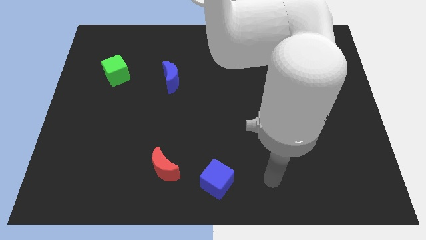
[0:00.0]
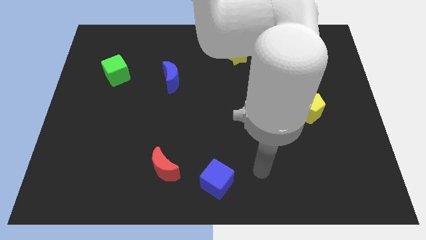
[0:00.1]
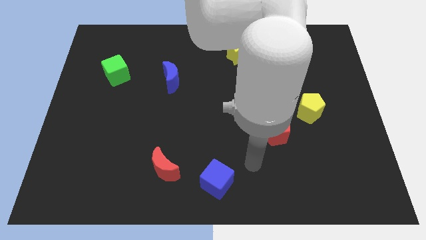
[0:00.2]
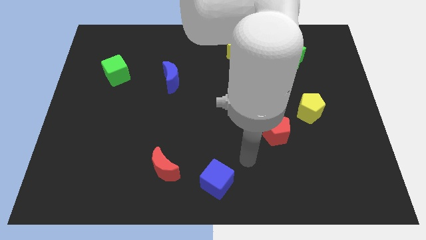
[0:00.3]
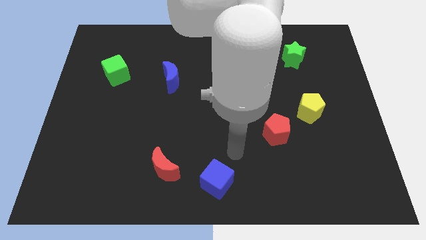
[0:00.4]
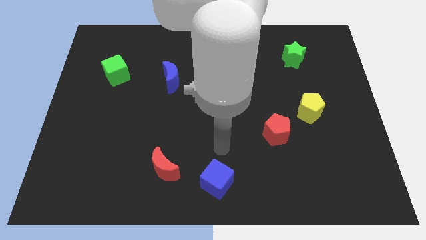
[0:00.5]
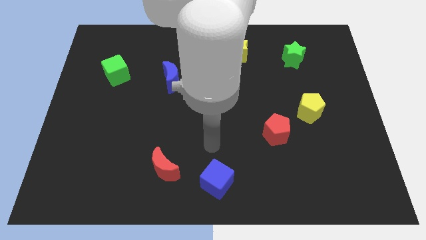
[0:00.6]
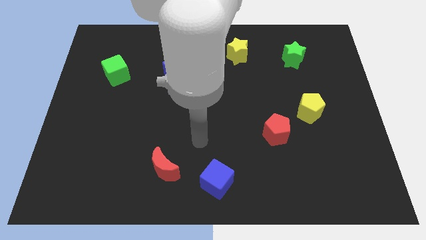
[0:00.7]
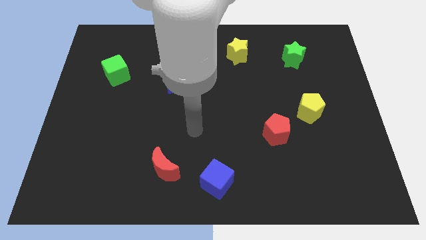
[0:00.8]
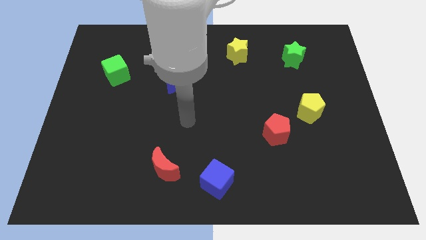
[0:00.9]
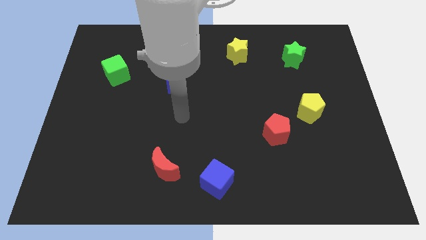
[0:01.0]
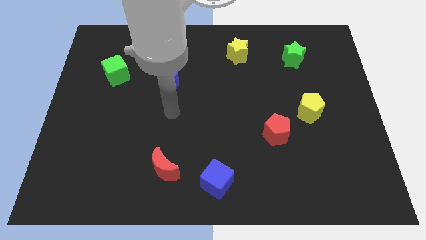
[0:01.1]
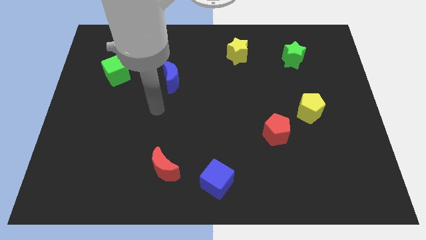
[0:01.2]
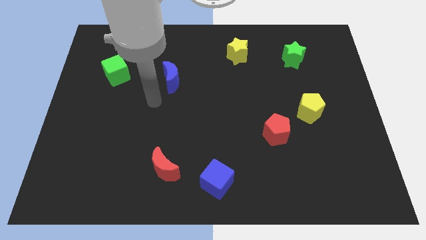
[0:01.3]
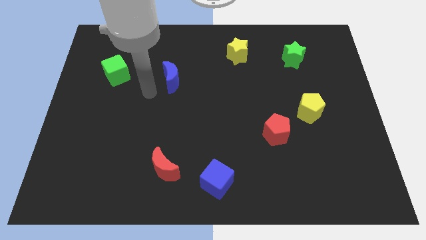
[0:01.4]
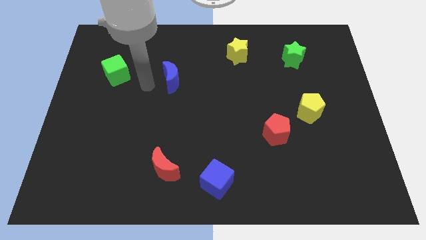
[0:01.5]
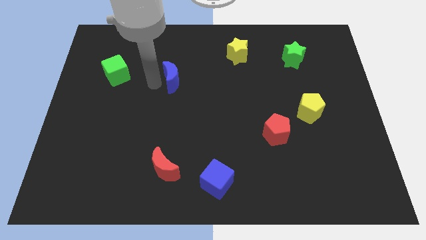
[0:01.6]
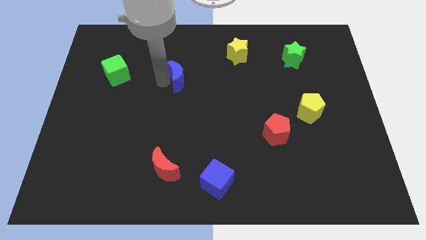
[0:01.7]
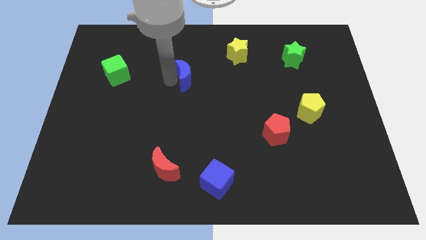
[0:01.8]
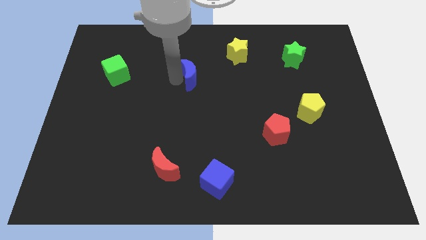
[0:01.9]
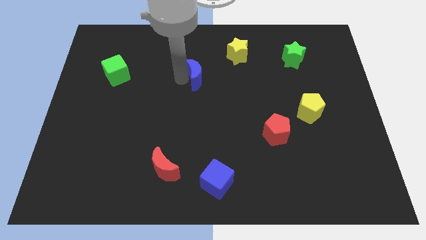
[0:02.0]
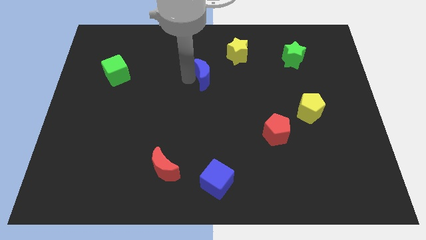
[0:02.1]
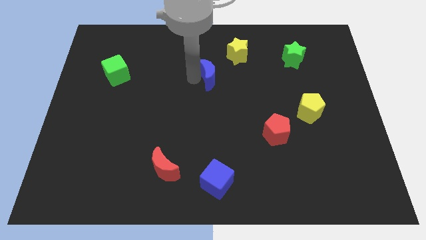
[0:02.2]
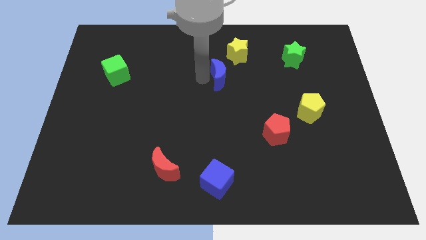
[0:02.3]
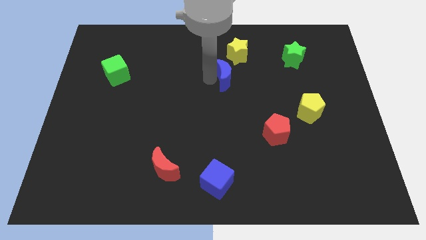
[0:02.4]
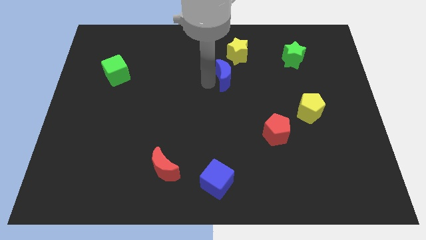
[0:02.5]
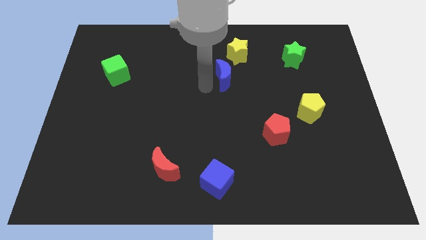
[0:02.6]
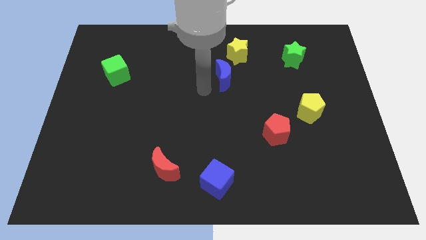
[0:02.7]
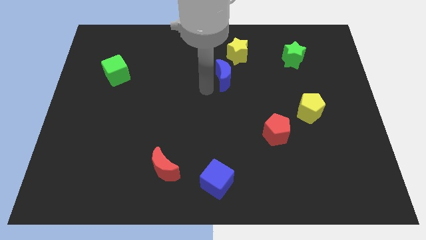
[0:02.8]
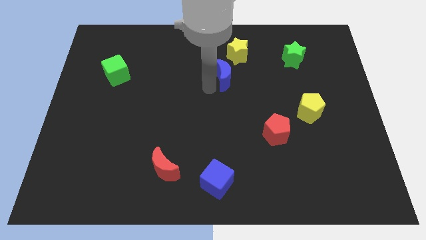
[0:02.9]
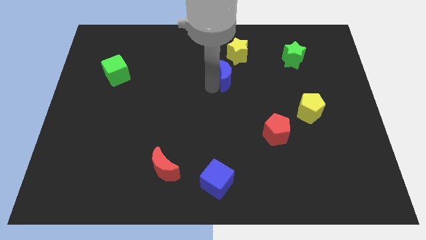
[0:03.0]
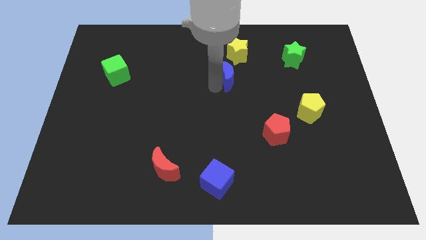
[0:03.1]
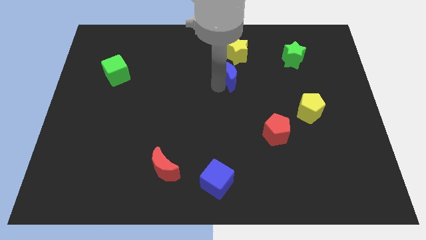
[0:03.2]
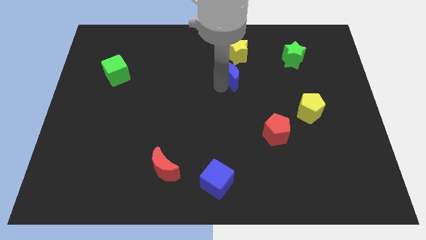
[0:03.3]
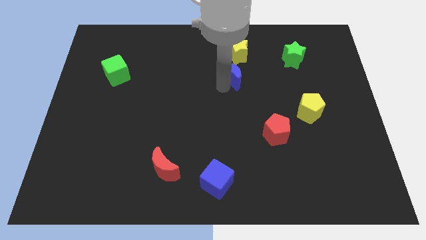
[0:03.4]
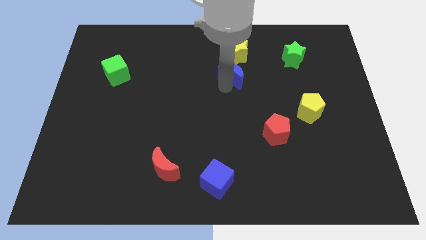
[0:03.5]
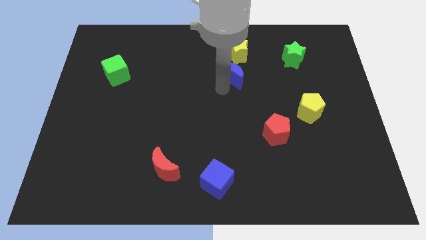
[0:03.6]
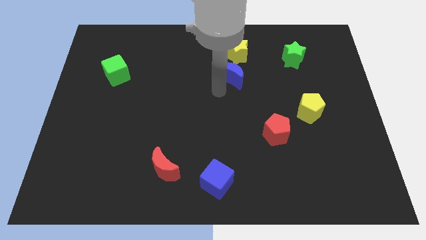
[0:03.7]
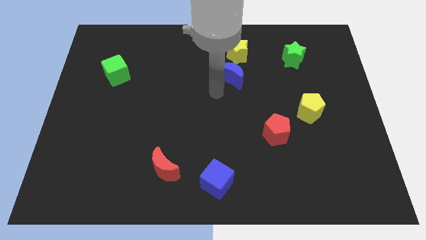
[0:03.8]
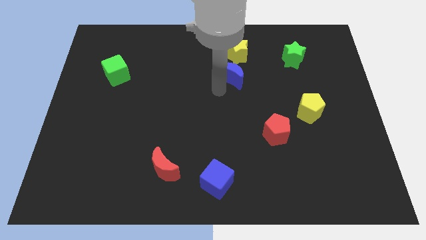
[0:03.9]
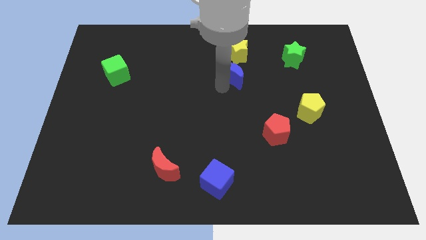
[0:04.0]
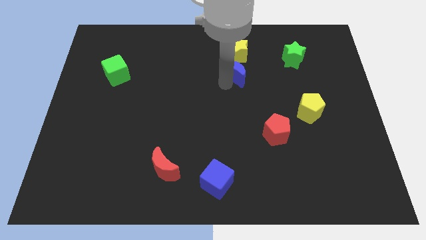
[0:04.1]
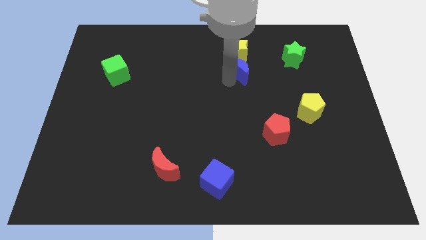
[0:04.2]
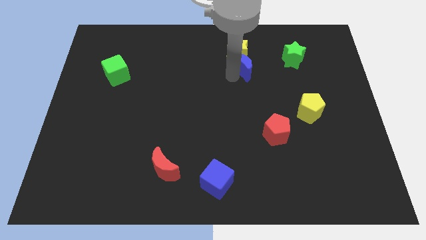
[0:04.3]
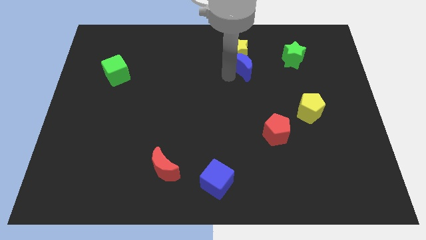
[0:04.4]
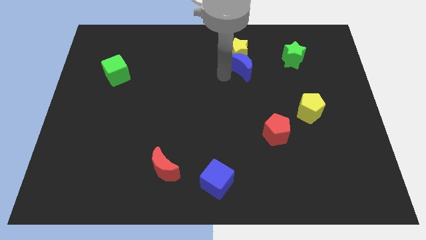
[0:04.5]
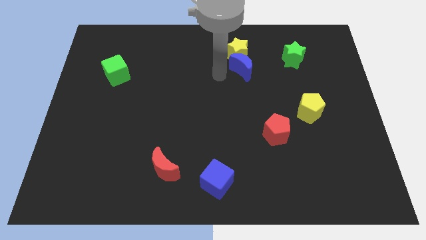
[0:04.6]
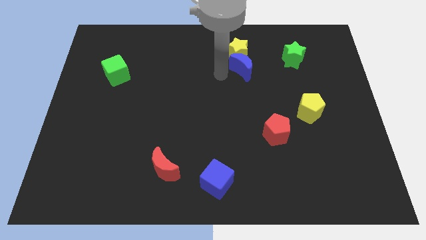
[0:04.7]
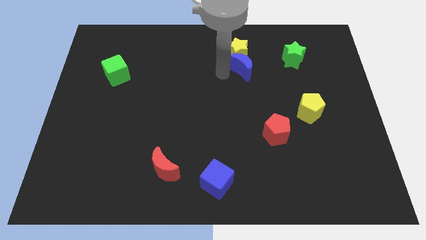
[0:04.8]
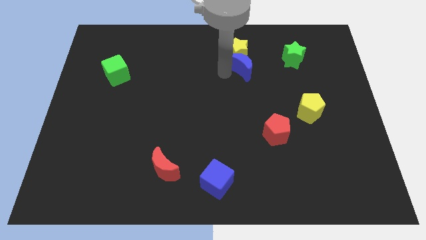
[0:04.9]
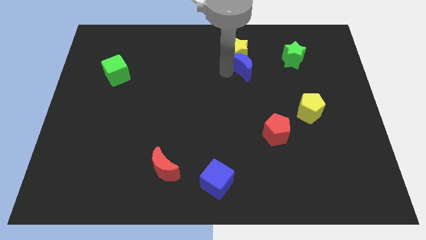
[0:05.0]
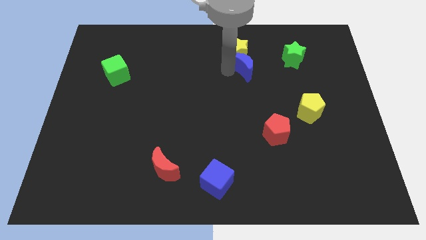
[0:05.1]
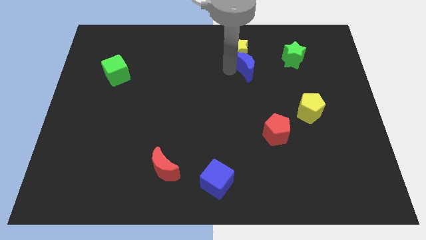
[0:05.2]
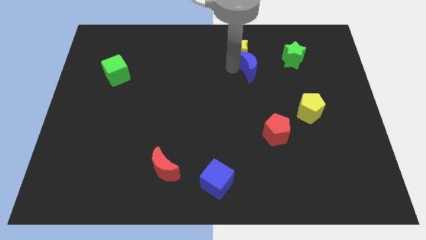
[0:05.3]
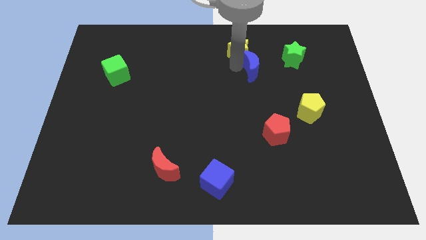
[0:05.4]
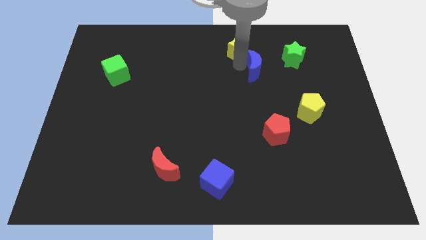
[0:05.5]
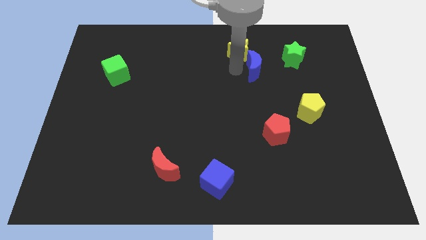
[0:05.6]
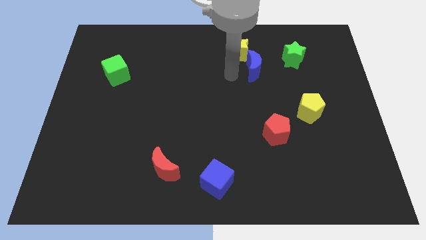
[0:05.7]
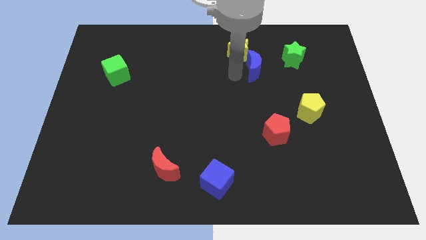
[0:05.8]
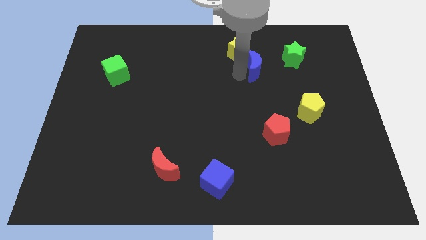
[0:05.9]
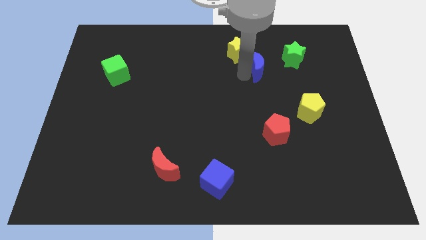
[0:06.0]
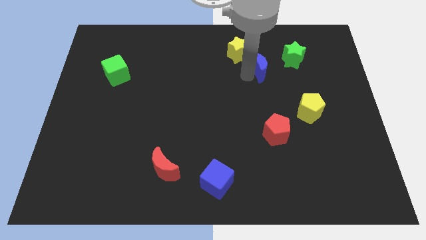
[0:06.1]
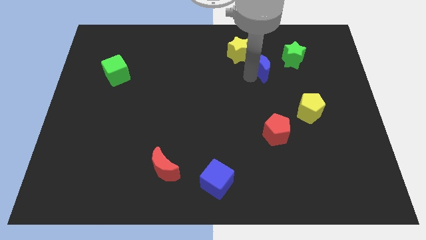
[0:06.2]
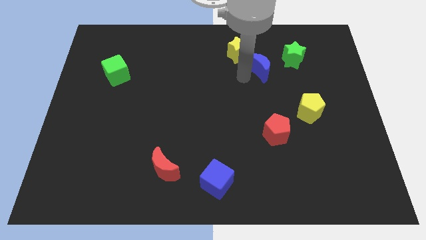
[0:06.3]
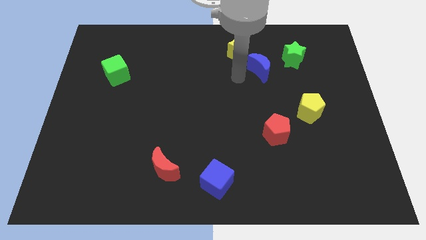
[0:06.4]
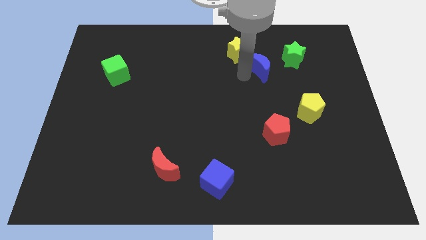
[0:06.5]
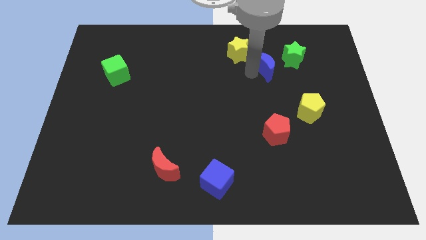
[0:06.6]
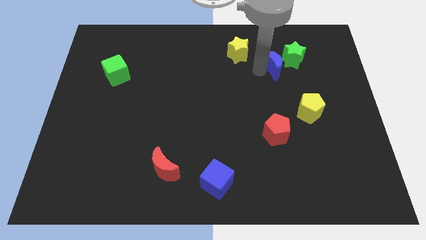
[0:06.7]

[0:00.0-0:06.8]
slide the blue moon towards the green star

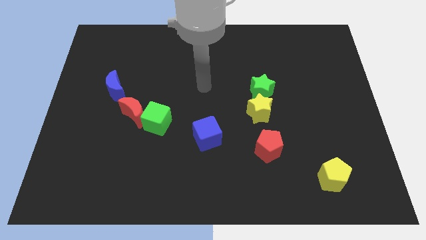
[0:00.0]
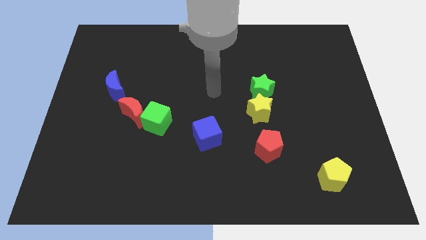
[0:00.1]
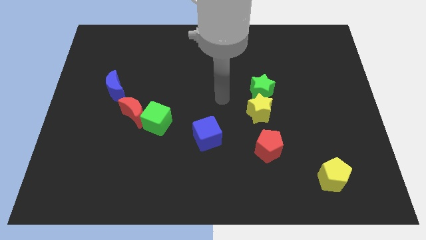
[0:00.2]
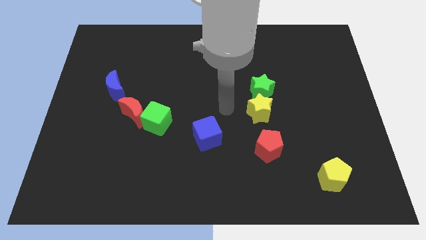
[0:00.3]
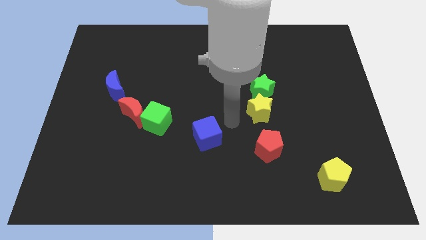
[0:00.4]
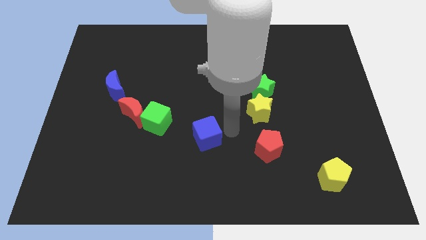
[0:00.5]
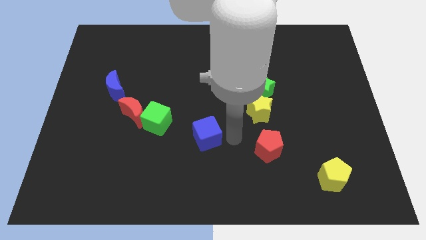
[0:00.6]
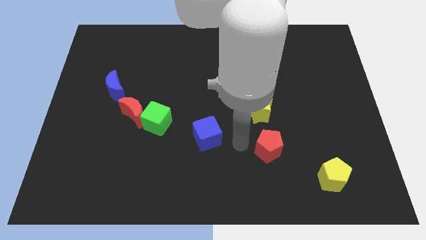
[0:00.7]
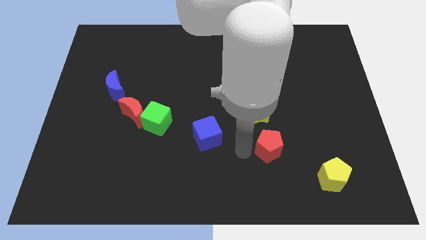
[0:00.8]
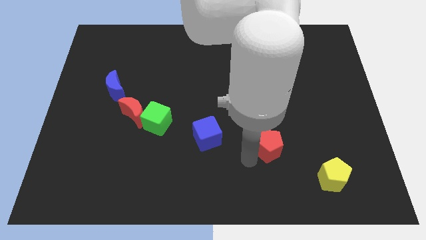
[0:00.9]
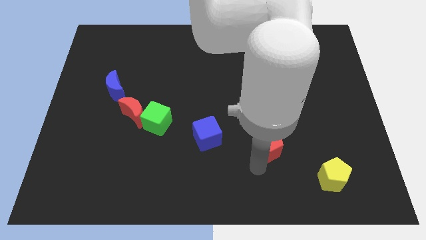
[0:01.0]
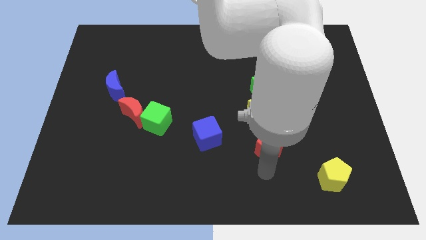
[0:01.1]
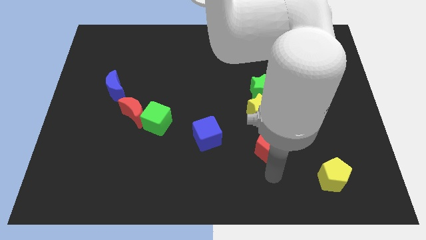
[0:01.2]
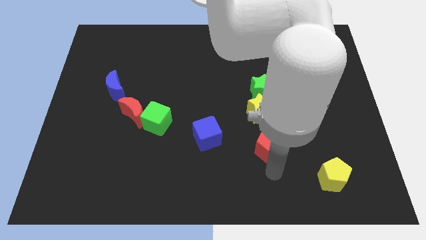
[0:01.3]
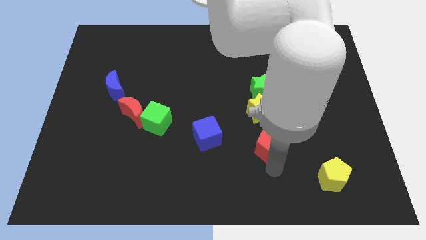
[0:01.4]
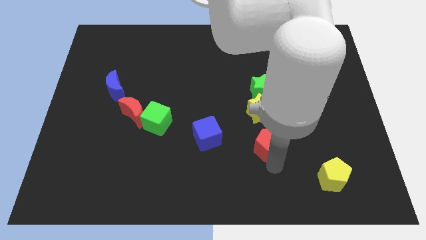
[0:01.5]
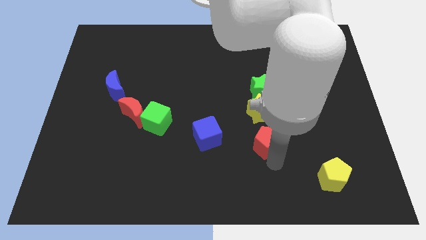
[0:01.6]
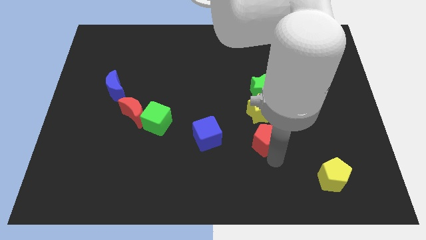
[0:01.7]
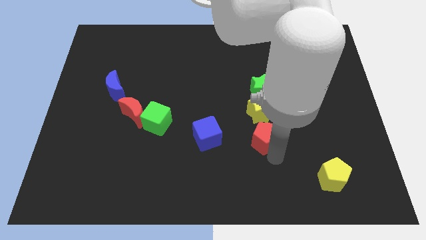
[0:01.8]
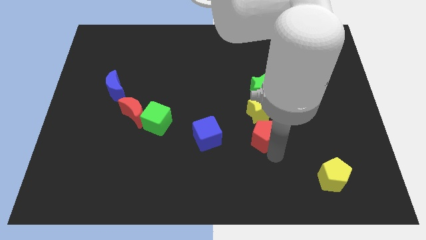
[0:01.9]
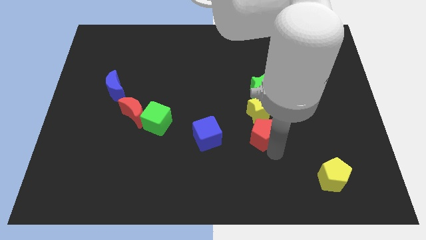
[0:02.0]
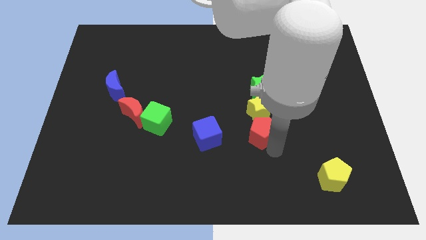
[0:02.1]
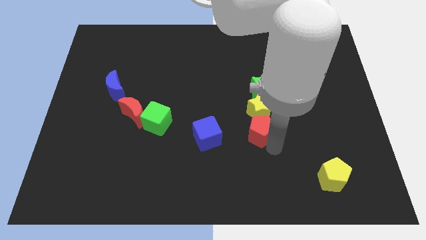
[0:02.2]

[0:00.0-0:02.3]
push the red pentagon close to the yellow star
